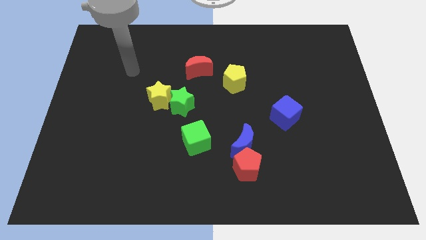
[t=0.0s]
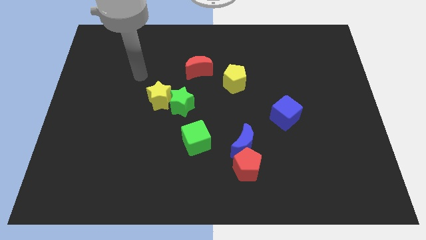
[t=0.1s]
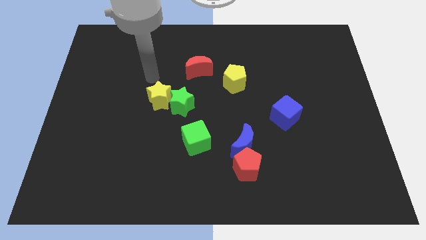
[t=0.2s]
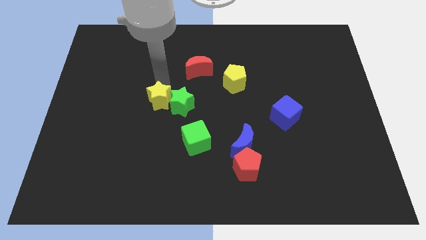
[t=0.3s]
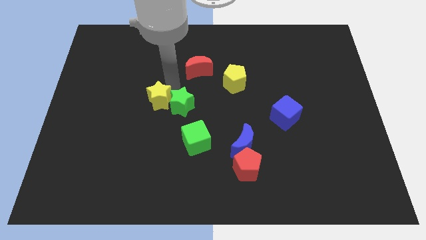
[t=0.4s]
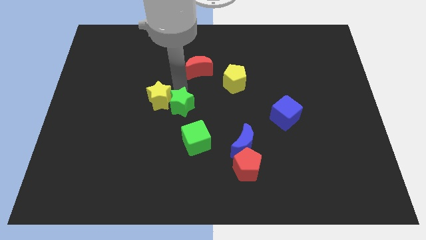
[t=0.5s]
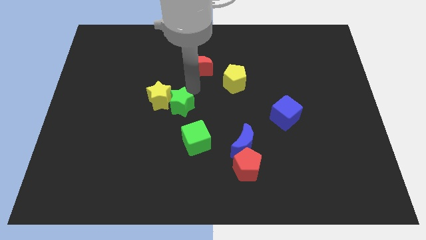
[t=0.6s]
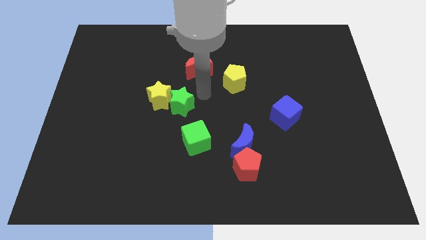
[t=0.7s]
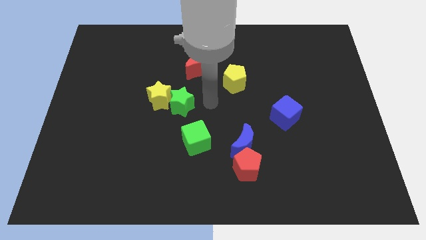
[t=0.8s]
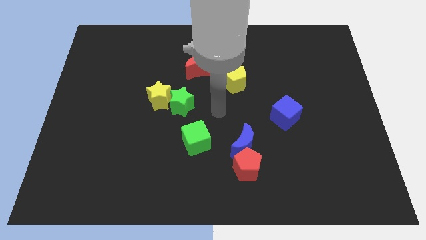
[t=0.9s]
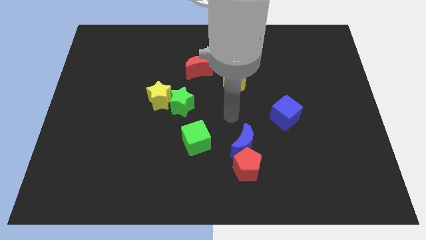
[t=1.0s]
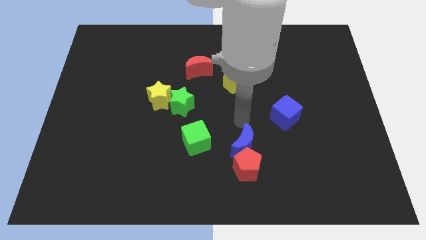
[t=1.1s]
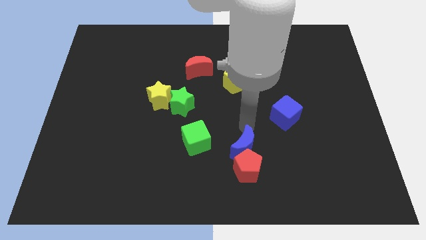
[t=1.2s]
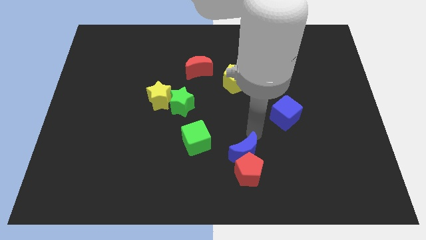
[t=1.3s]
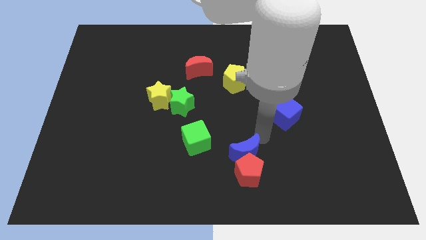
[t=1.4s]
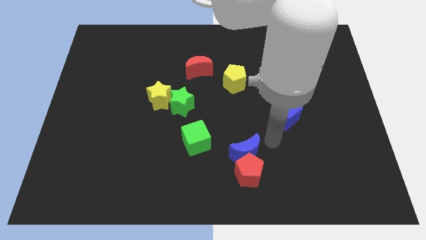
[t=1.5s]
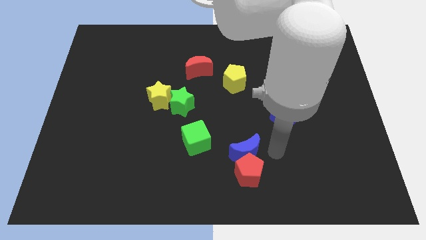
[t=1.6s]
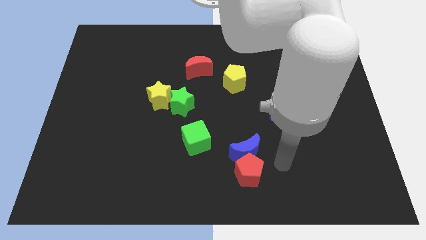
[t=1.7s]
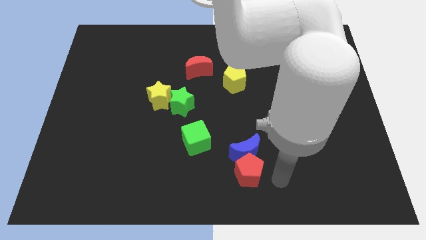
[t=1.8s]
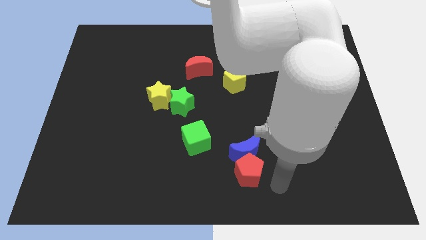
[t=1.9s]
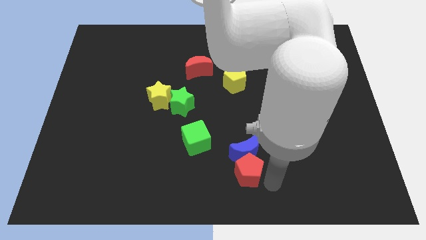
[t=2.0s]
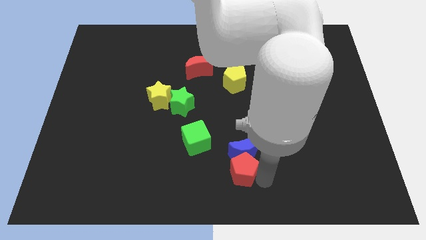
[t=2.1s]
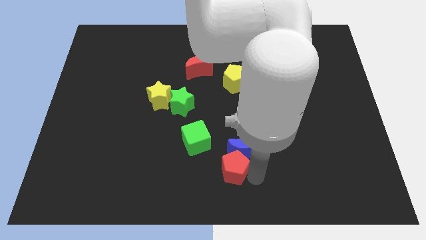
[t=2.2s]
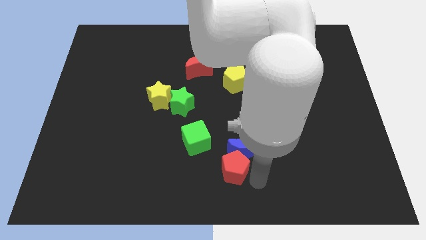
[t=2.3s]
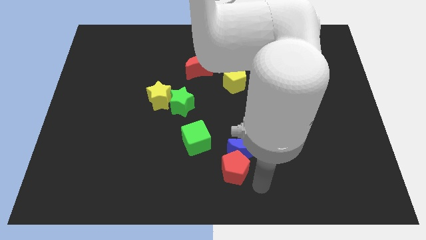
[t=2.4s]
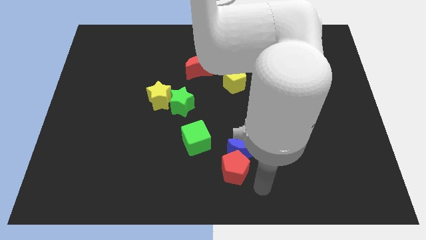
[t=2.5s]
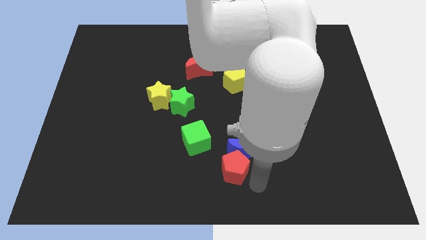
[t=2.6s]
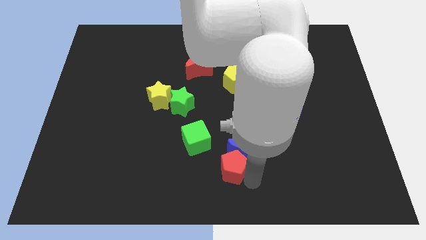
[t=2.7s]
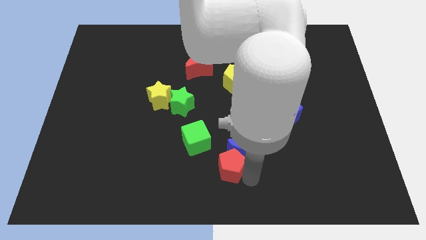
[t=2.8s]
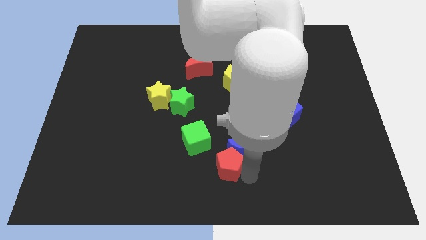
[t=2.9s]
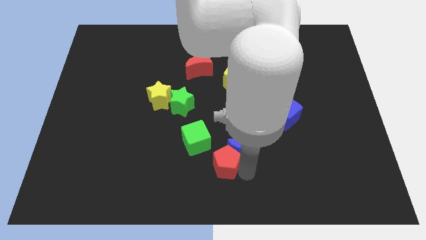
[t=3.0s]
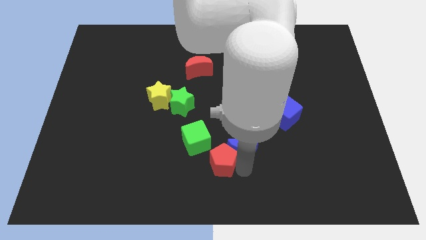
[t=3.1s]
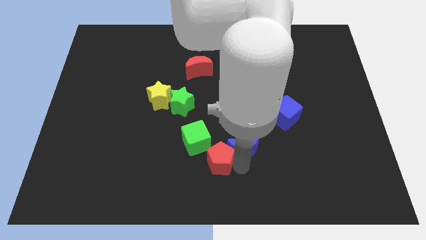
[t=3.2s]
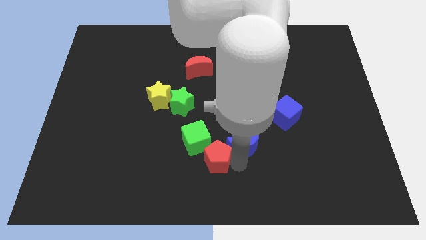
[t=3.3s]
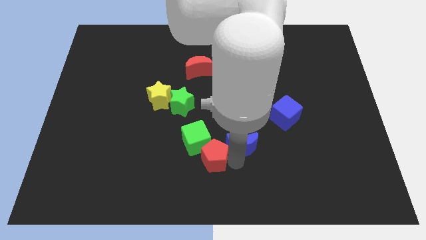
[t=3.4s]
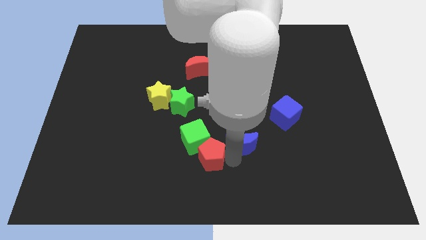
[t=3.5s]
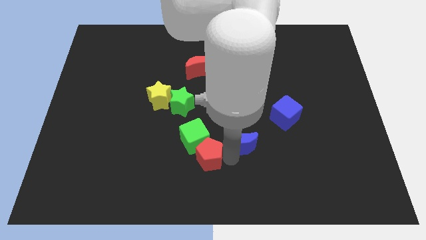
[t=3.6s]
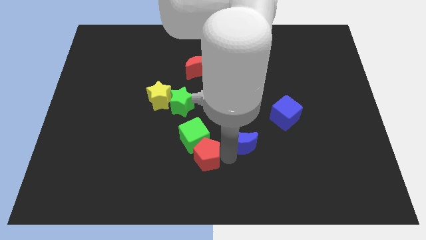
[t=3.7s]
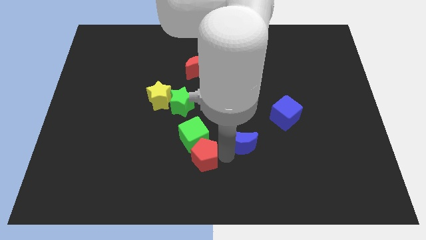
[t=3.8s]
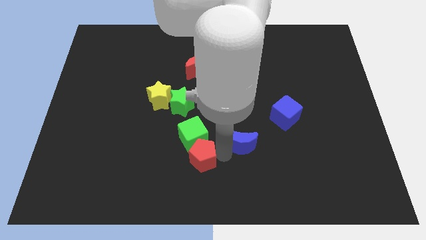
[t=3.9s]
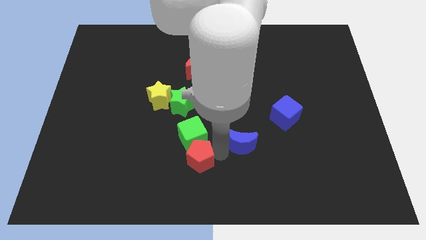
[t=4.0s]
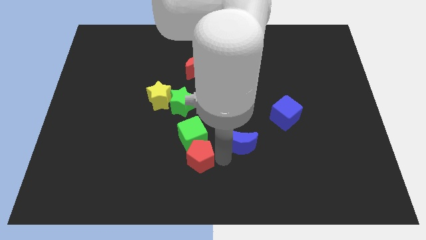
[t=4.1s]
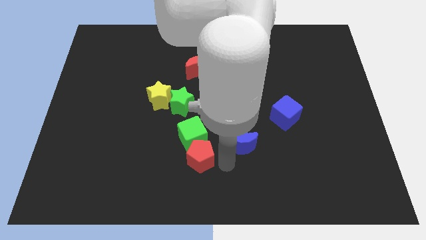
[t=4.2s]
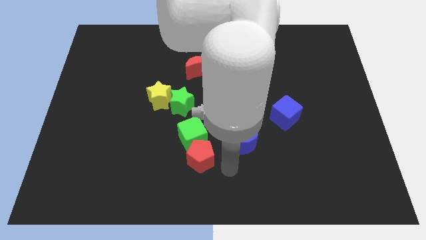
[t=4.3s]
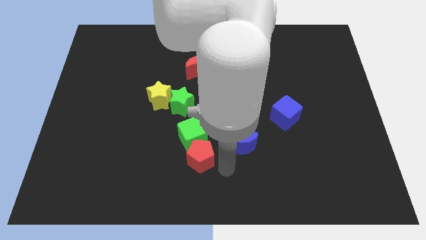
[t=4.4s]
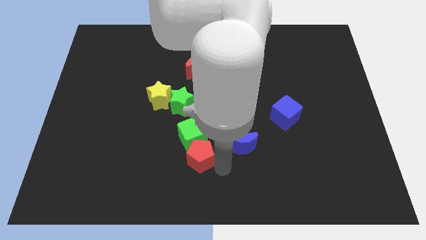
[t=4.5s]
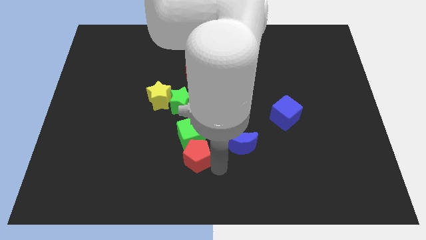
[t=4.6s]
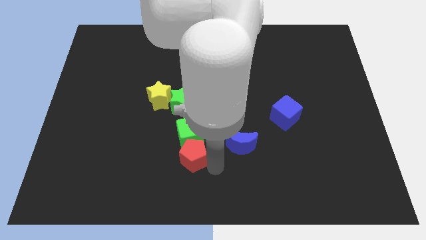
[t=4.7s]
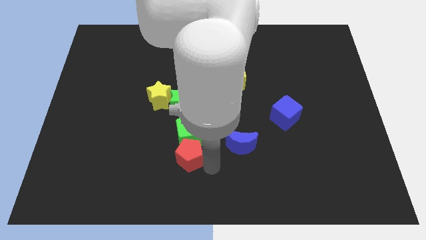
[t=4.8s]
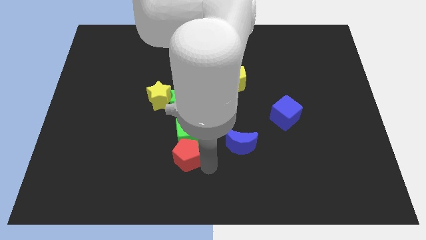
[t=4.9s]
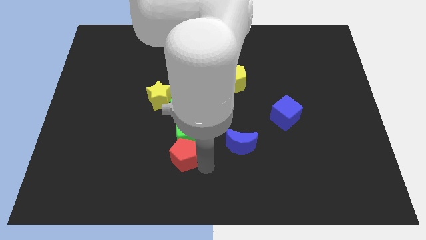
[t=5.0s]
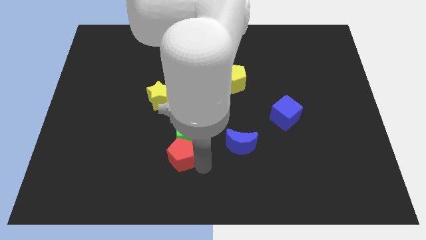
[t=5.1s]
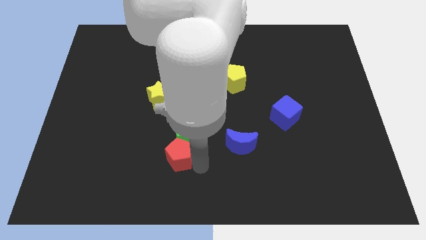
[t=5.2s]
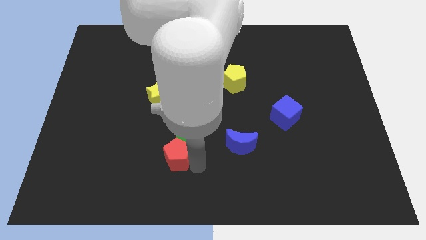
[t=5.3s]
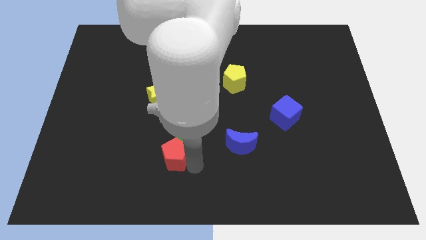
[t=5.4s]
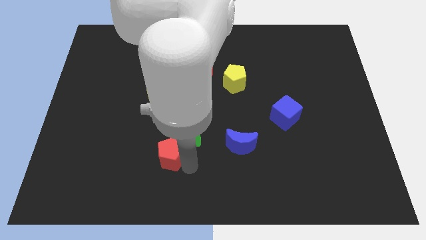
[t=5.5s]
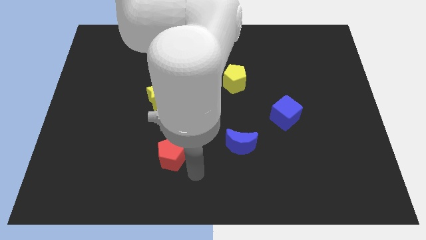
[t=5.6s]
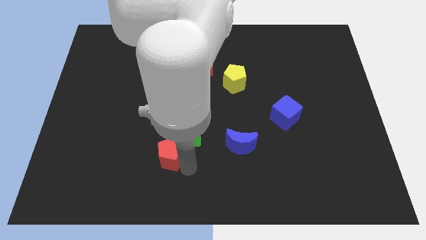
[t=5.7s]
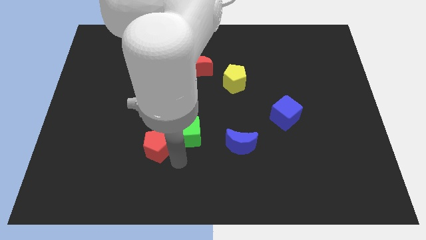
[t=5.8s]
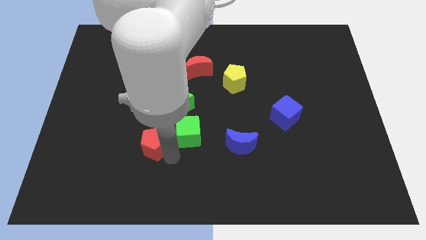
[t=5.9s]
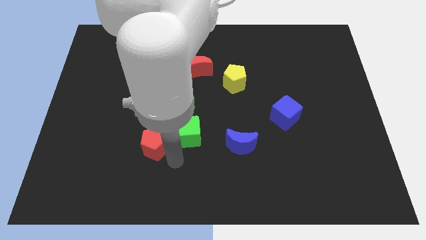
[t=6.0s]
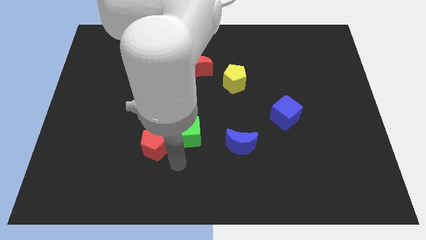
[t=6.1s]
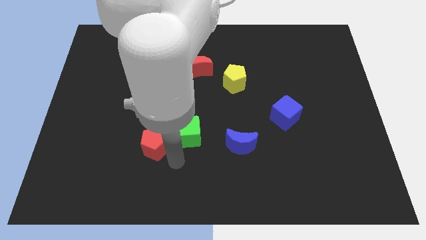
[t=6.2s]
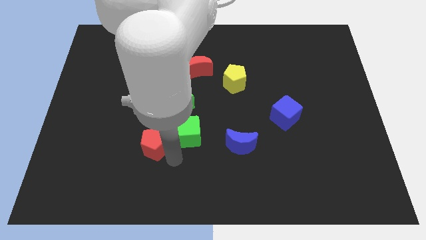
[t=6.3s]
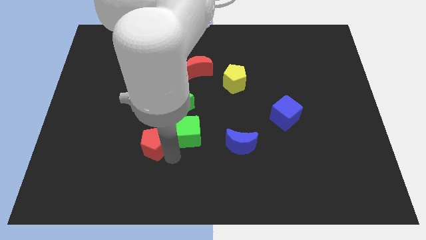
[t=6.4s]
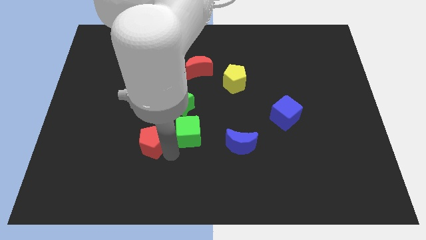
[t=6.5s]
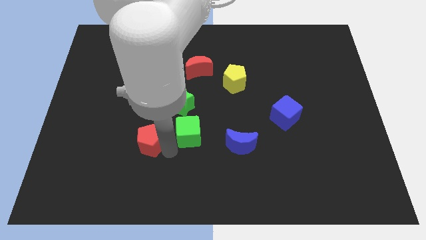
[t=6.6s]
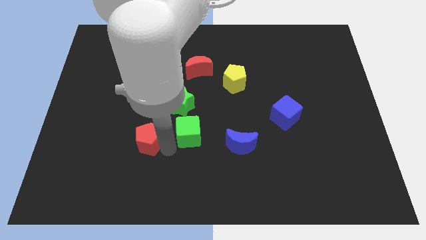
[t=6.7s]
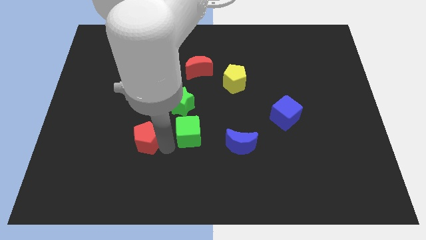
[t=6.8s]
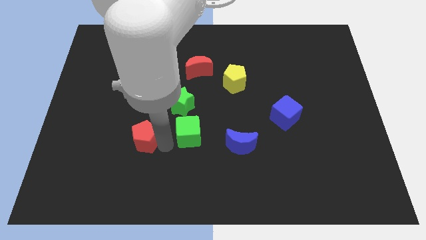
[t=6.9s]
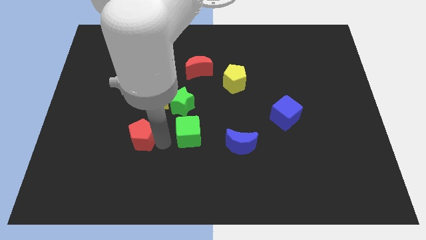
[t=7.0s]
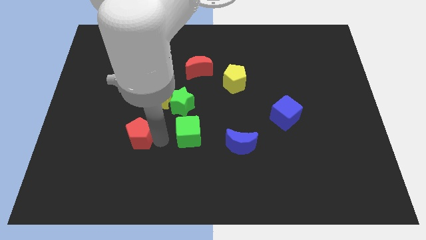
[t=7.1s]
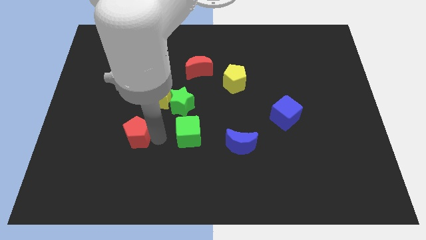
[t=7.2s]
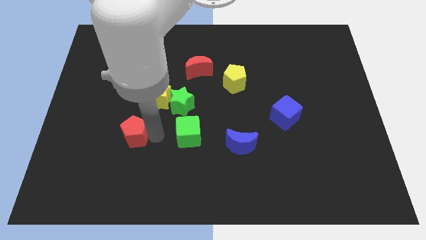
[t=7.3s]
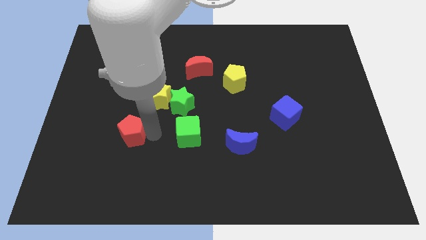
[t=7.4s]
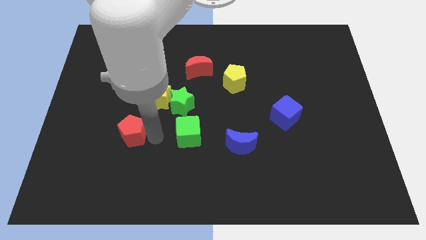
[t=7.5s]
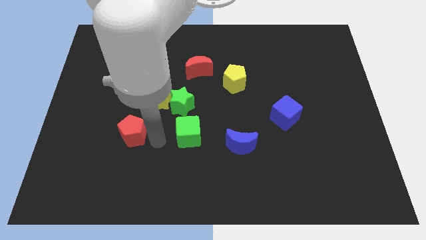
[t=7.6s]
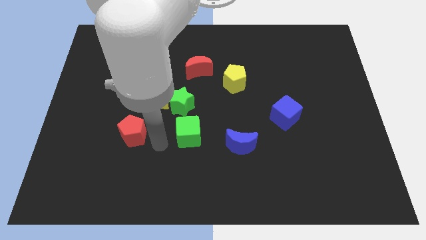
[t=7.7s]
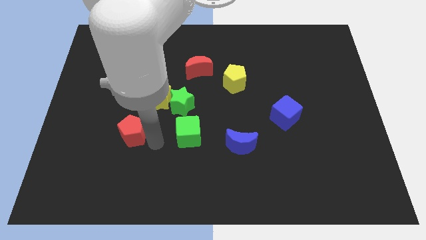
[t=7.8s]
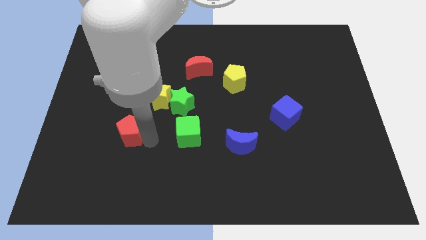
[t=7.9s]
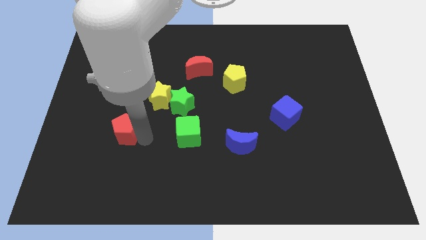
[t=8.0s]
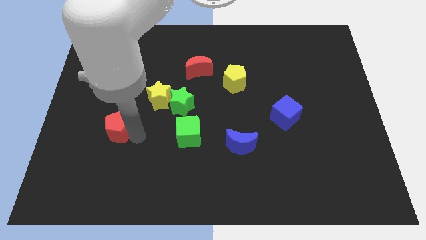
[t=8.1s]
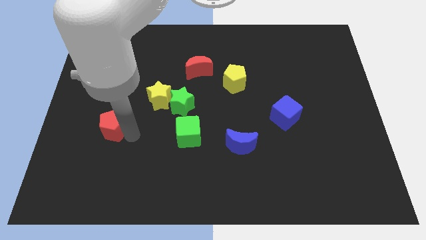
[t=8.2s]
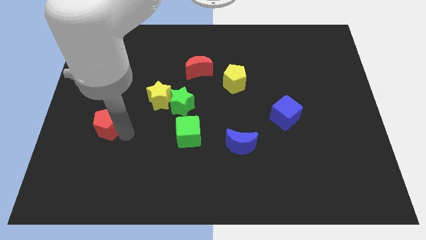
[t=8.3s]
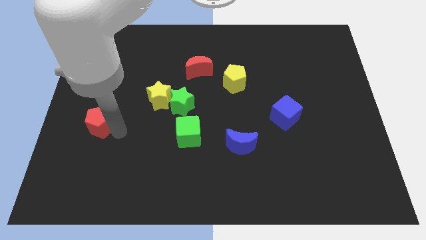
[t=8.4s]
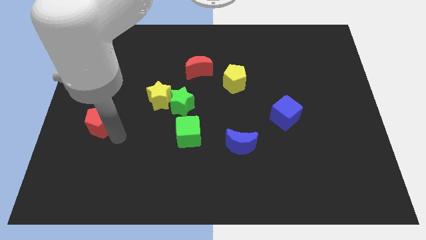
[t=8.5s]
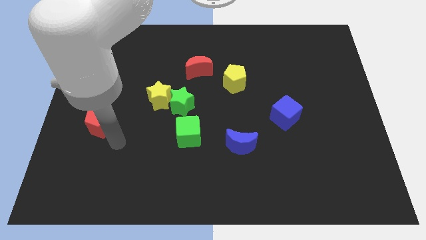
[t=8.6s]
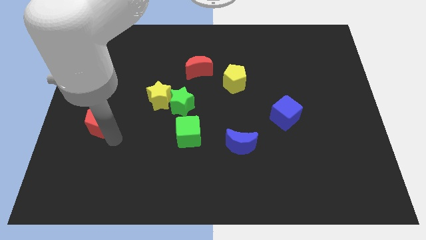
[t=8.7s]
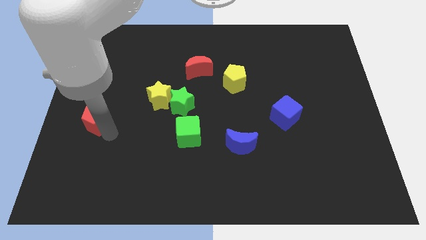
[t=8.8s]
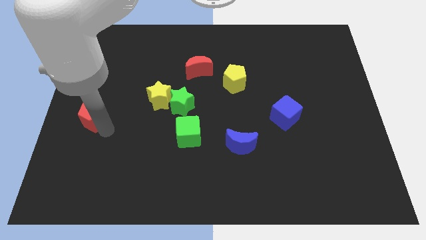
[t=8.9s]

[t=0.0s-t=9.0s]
push the red pentagon to the left side
